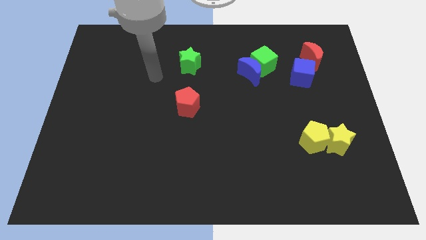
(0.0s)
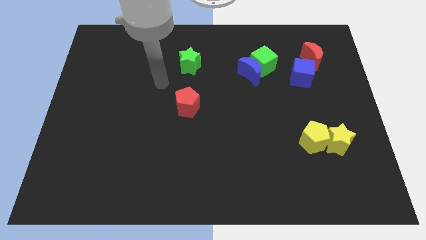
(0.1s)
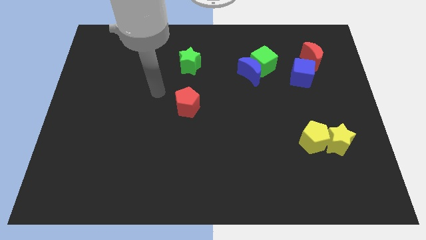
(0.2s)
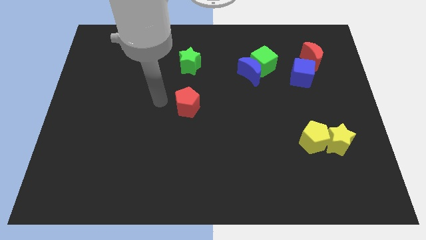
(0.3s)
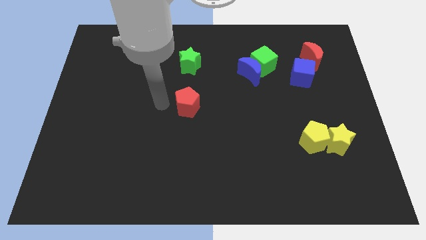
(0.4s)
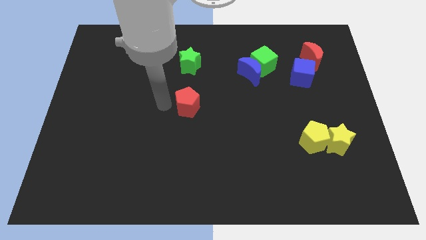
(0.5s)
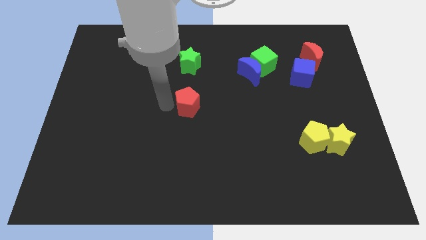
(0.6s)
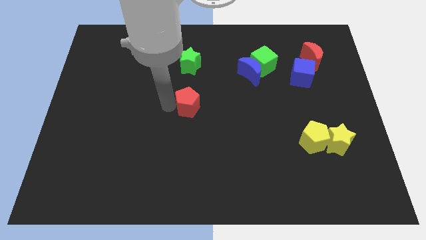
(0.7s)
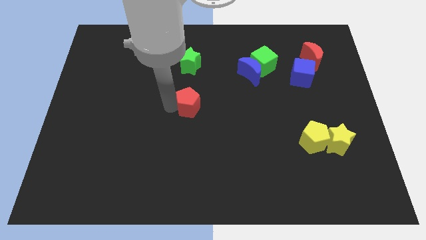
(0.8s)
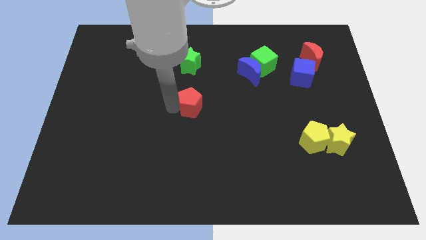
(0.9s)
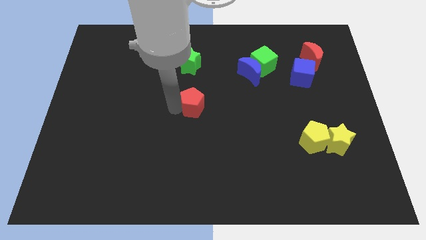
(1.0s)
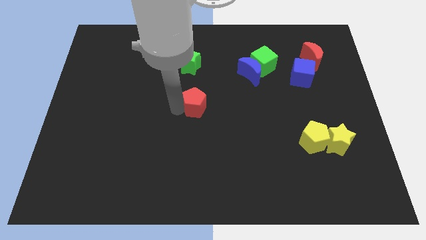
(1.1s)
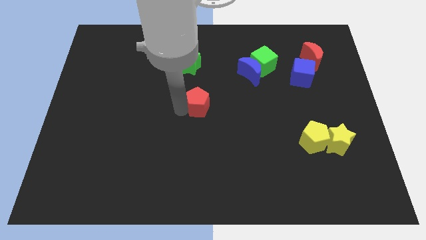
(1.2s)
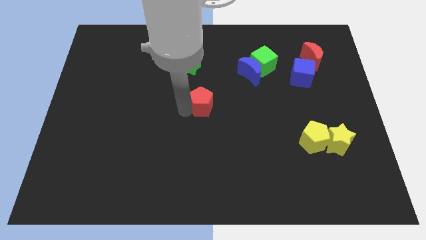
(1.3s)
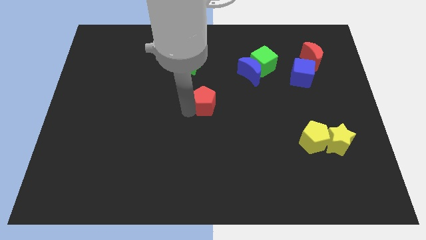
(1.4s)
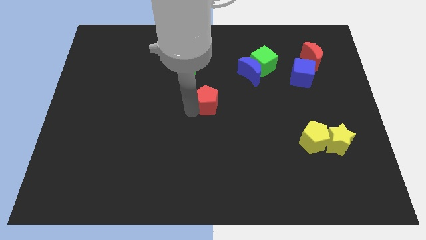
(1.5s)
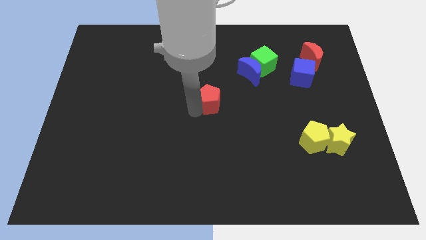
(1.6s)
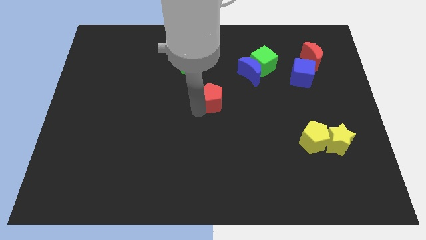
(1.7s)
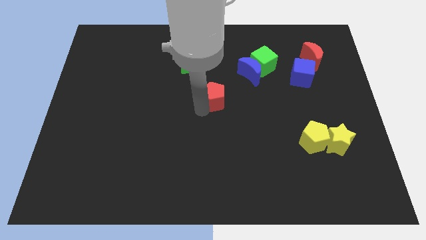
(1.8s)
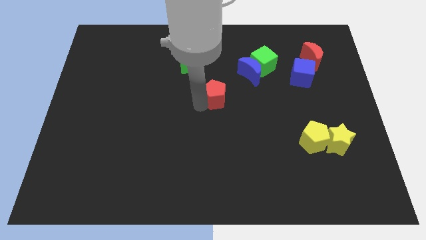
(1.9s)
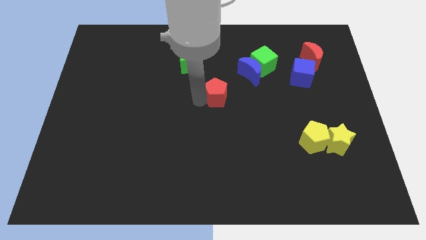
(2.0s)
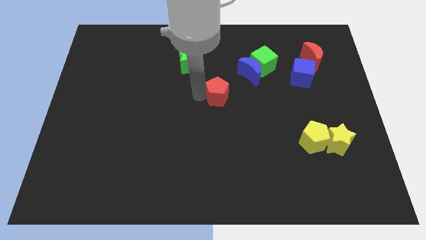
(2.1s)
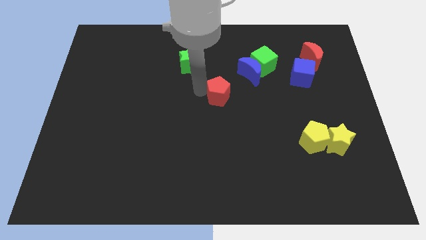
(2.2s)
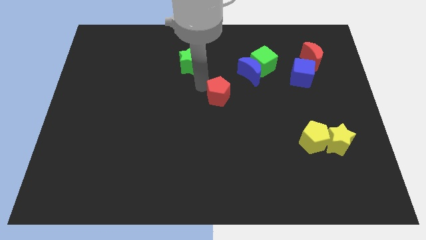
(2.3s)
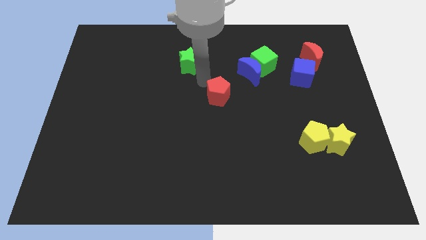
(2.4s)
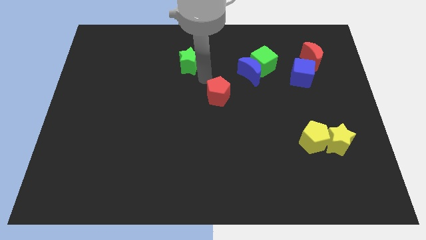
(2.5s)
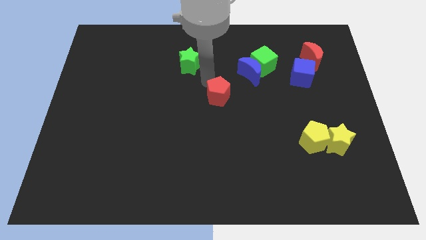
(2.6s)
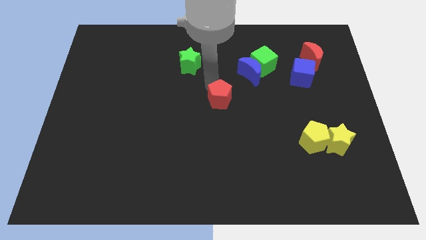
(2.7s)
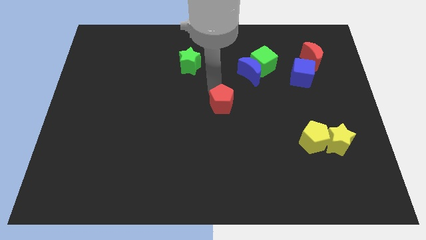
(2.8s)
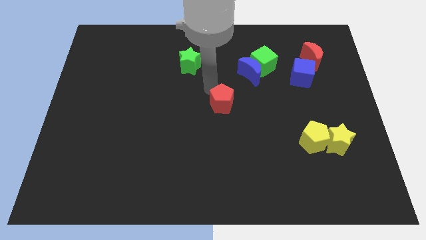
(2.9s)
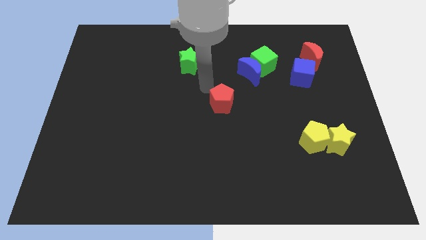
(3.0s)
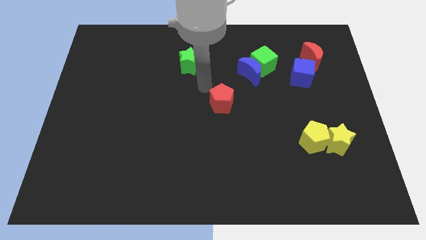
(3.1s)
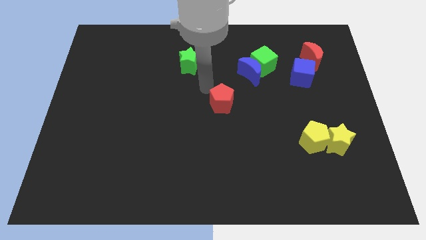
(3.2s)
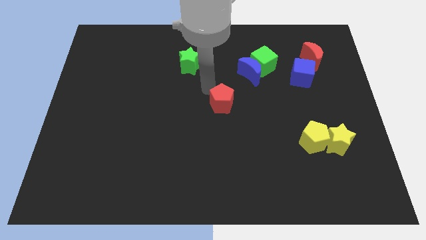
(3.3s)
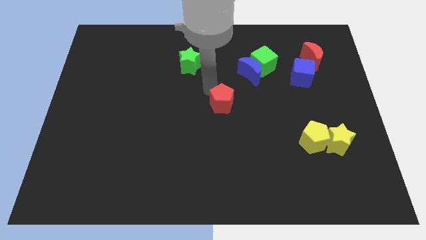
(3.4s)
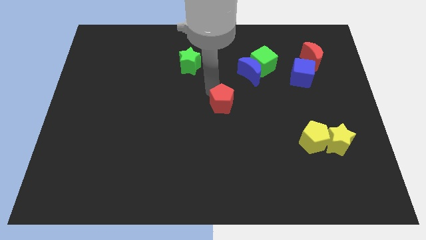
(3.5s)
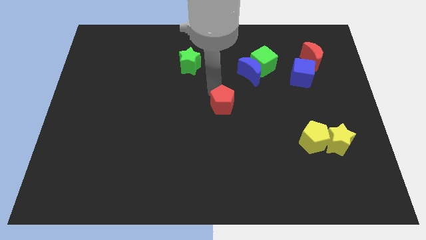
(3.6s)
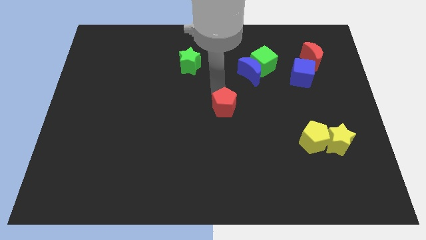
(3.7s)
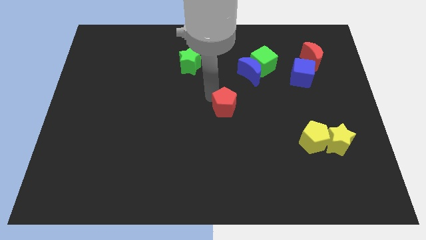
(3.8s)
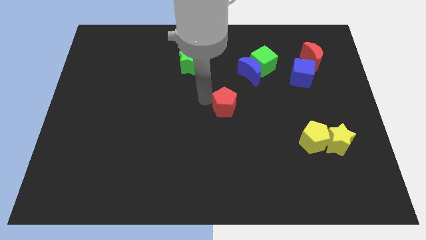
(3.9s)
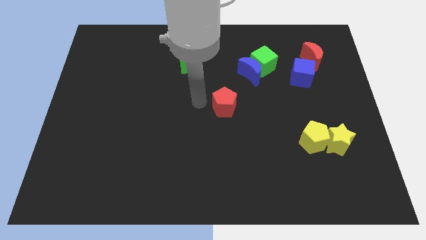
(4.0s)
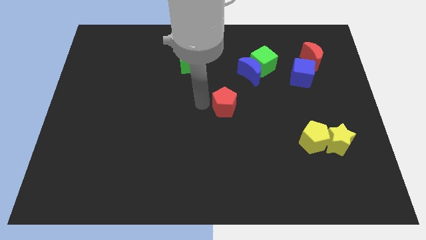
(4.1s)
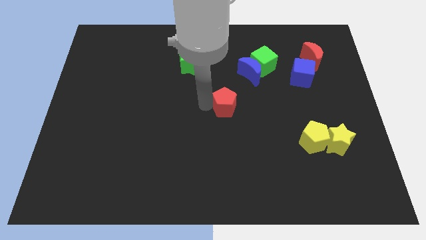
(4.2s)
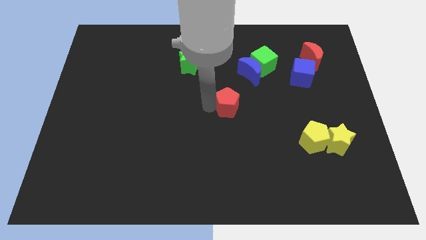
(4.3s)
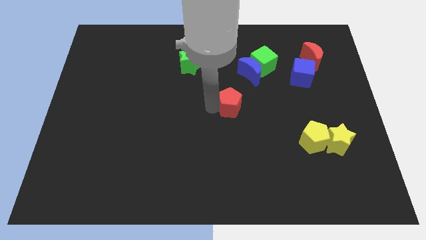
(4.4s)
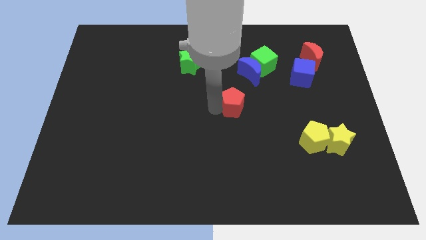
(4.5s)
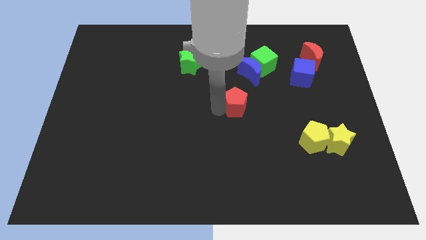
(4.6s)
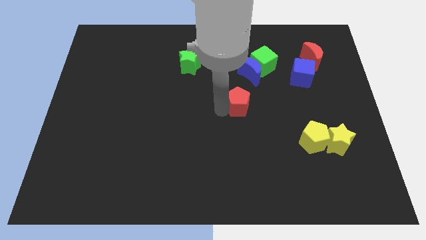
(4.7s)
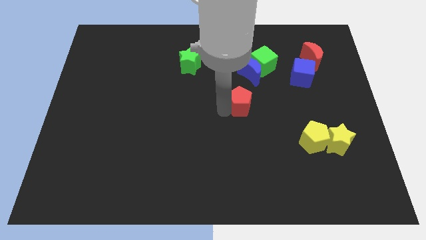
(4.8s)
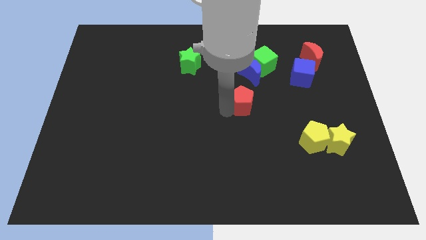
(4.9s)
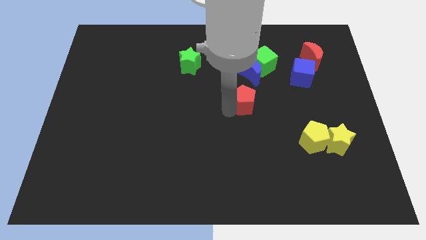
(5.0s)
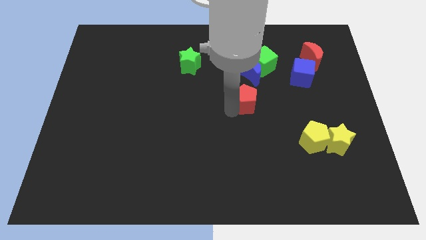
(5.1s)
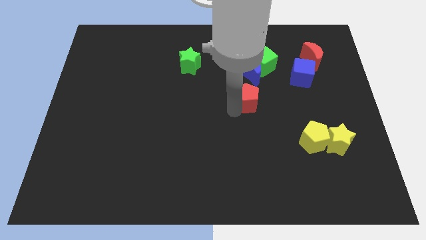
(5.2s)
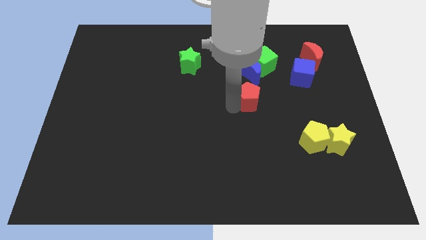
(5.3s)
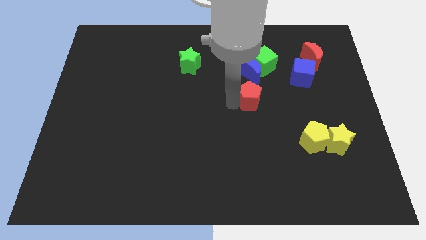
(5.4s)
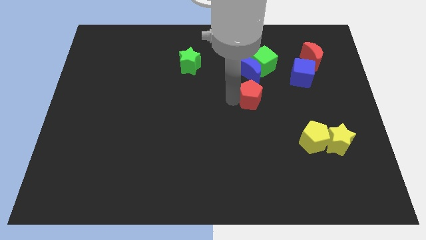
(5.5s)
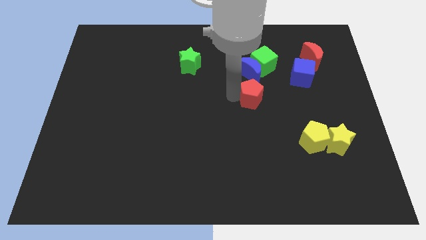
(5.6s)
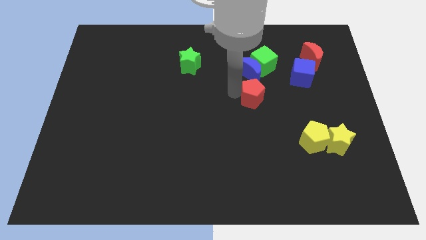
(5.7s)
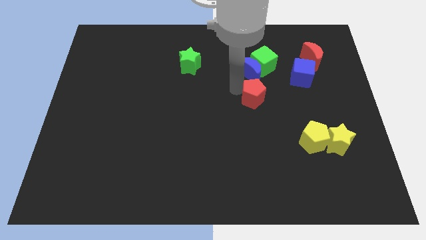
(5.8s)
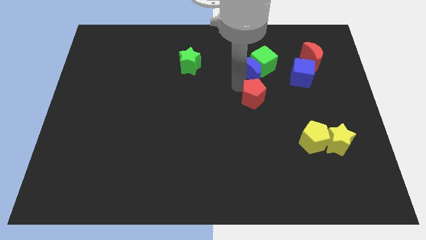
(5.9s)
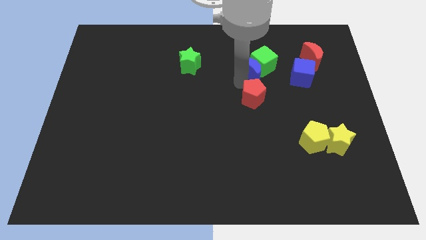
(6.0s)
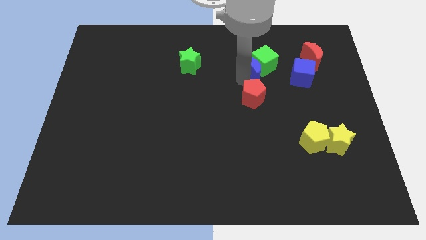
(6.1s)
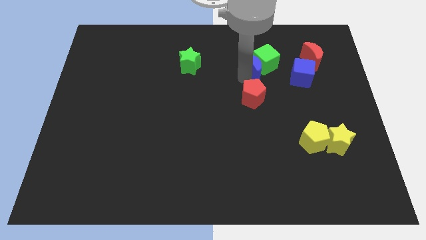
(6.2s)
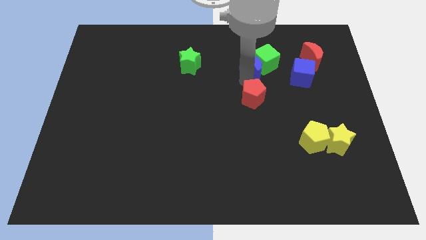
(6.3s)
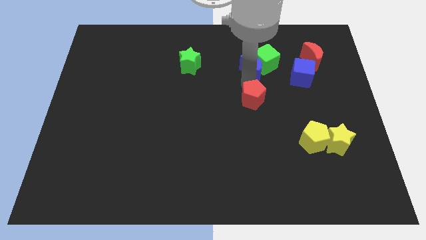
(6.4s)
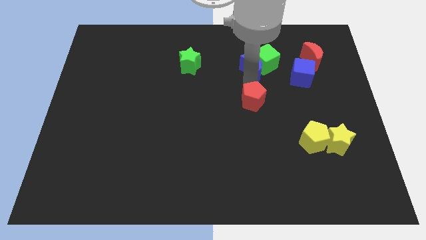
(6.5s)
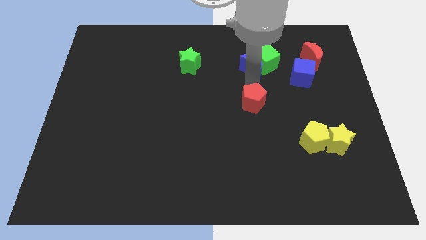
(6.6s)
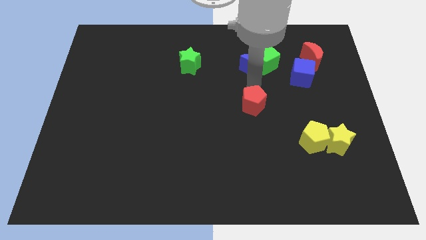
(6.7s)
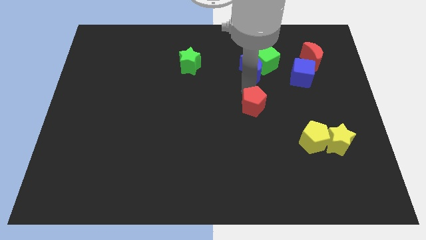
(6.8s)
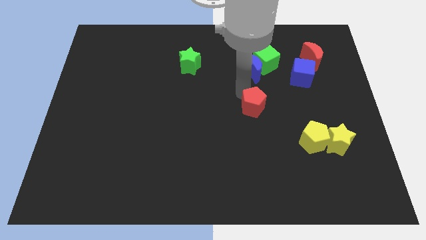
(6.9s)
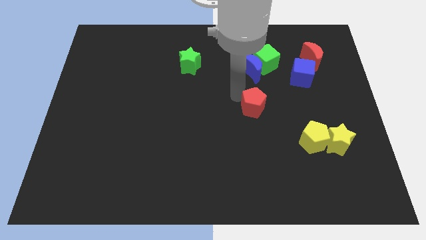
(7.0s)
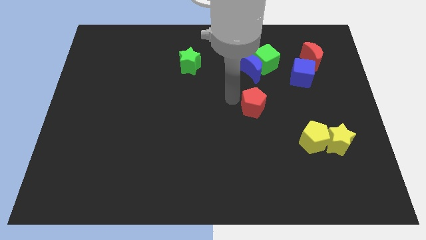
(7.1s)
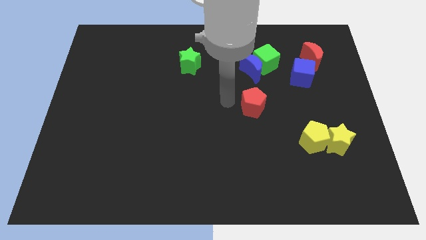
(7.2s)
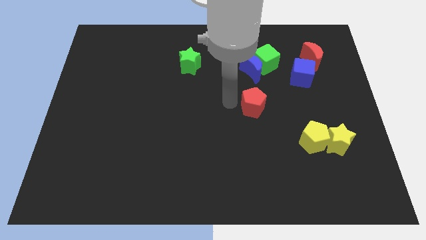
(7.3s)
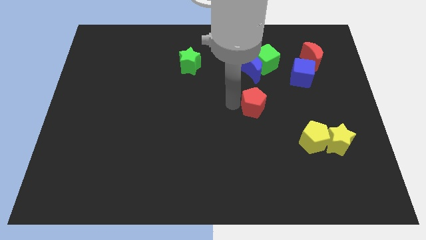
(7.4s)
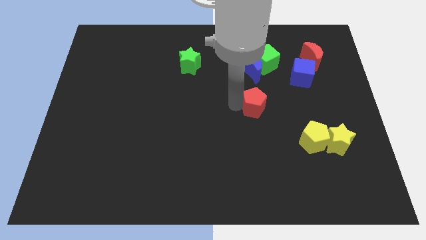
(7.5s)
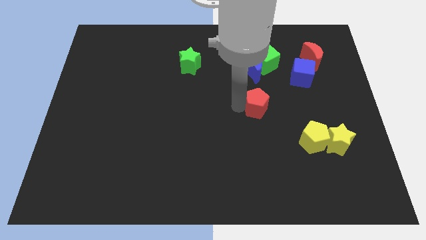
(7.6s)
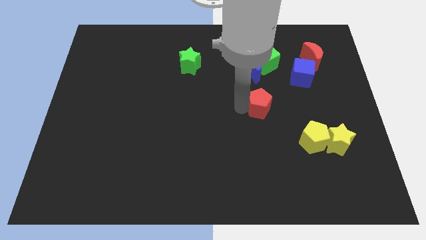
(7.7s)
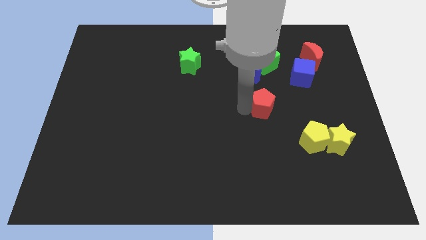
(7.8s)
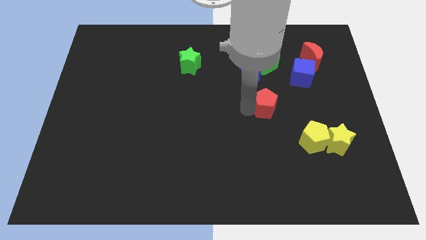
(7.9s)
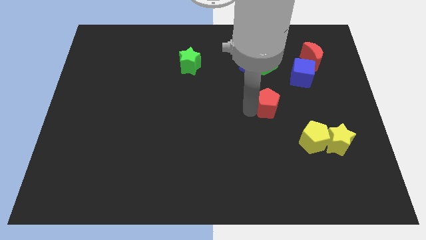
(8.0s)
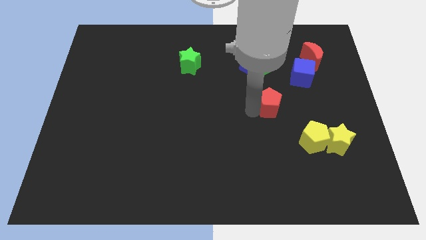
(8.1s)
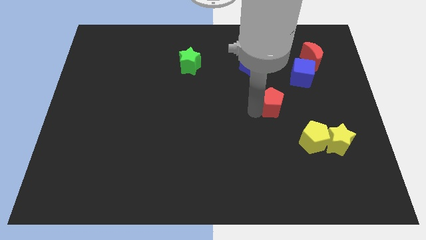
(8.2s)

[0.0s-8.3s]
move the red pentagon to the right
